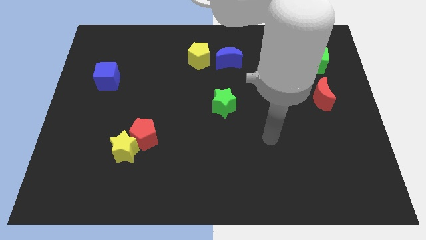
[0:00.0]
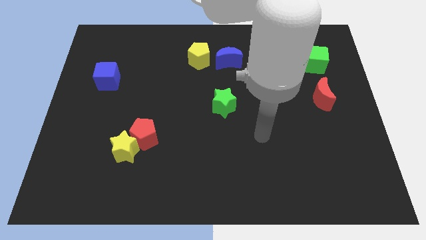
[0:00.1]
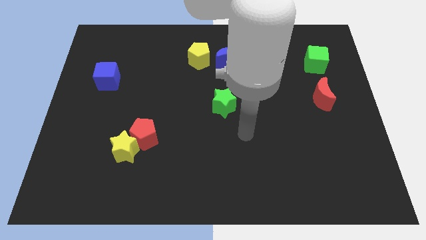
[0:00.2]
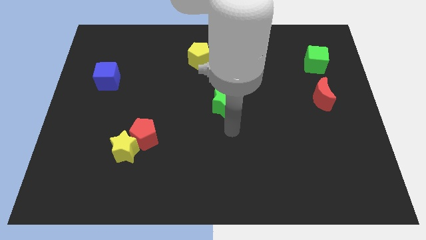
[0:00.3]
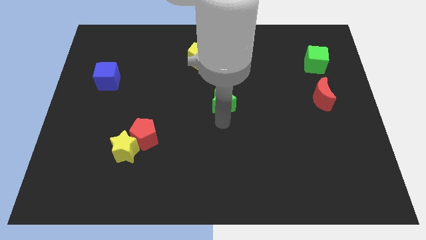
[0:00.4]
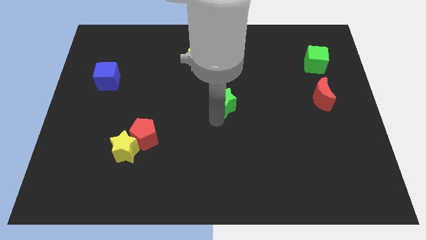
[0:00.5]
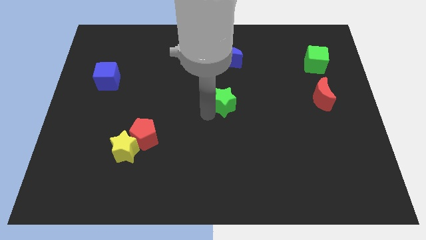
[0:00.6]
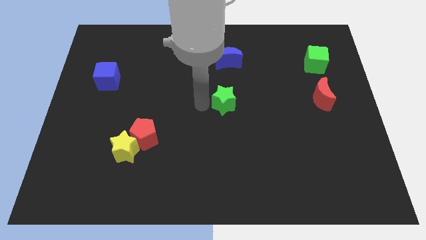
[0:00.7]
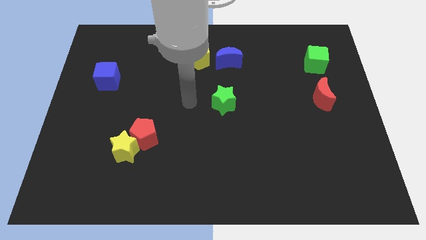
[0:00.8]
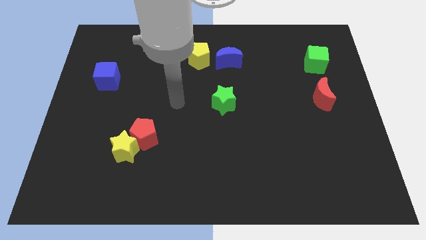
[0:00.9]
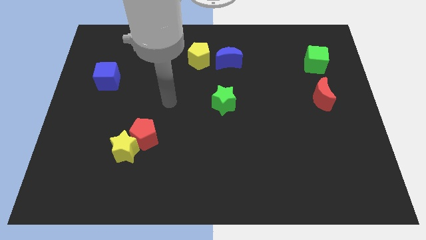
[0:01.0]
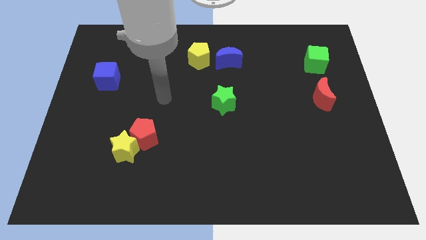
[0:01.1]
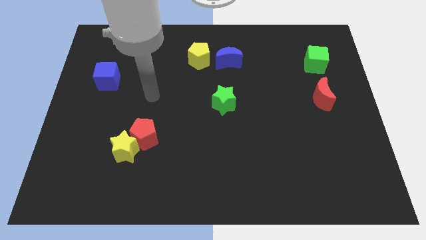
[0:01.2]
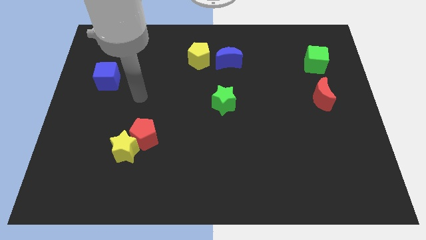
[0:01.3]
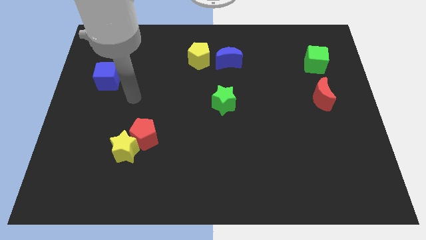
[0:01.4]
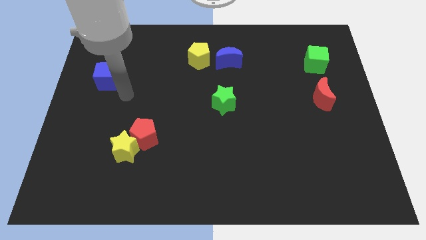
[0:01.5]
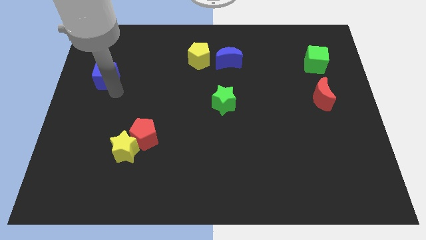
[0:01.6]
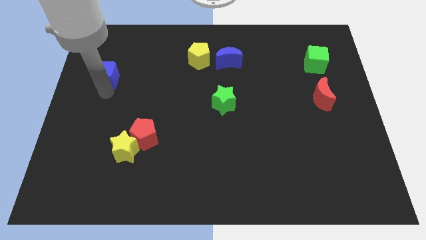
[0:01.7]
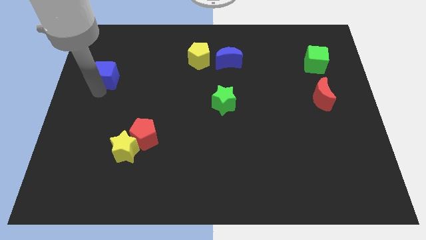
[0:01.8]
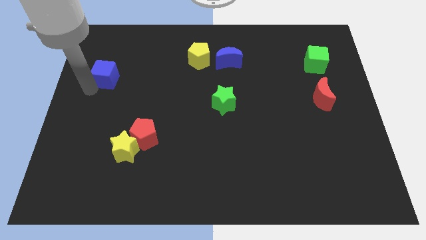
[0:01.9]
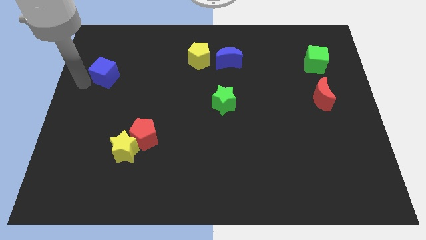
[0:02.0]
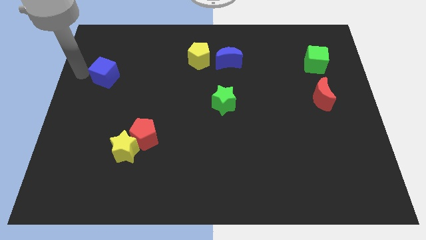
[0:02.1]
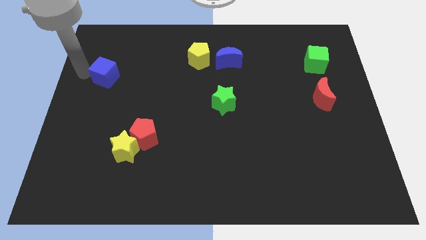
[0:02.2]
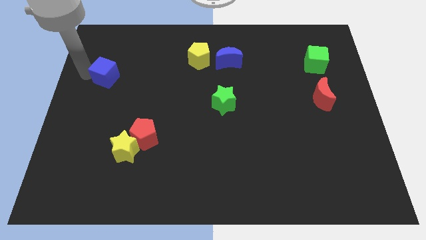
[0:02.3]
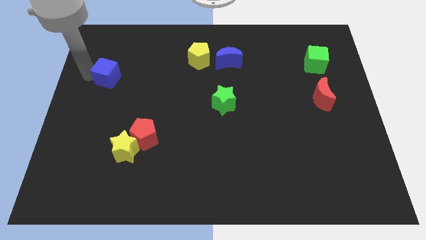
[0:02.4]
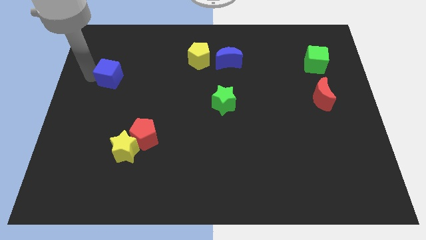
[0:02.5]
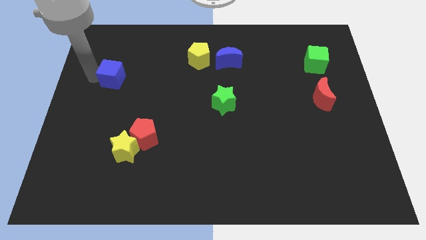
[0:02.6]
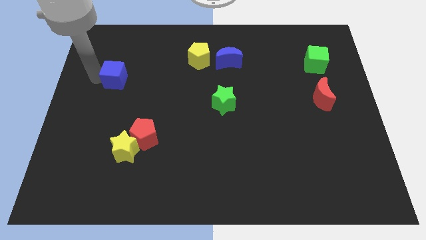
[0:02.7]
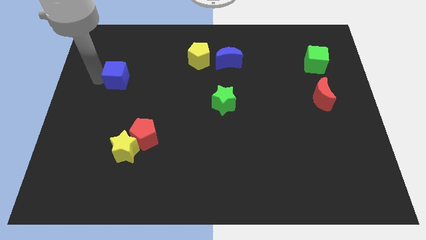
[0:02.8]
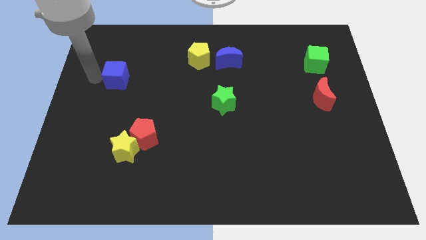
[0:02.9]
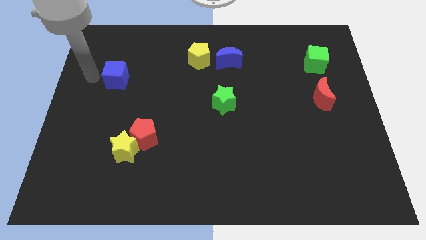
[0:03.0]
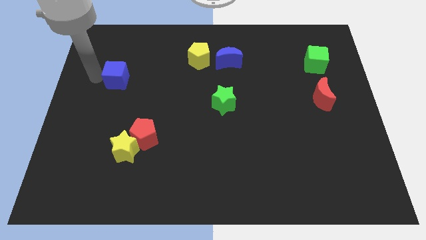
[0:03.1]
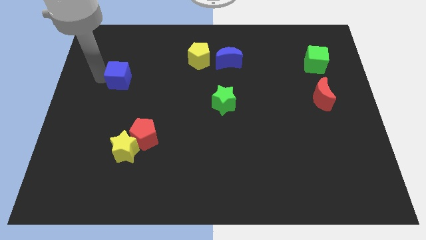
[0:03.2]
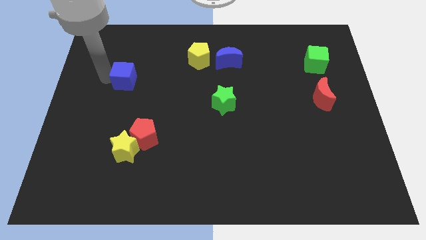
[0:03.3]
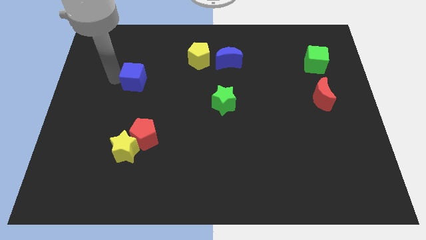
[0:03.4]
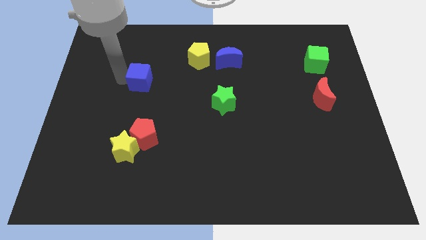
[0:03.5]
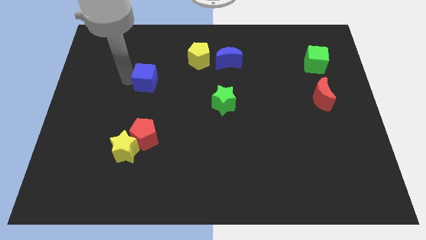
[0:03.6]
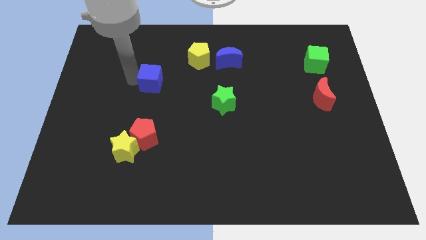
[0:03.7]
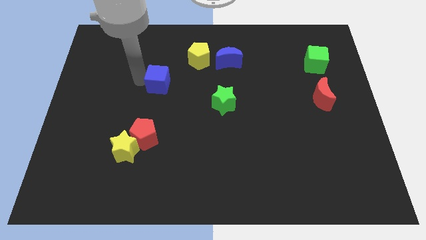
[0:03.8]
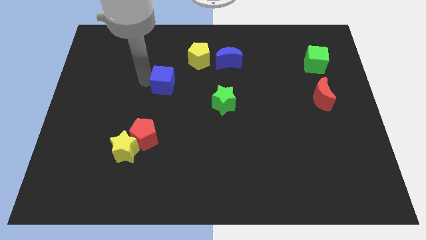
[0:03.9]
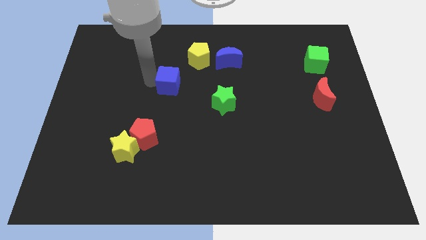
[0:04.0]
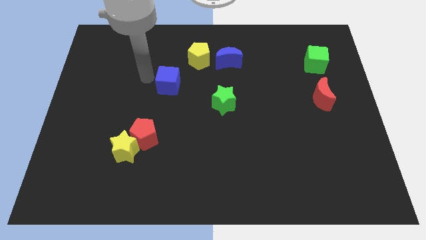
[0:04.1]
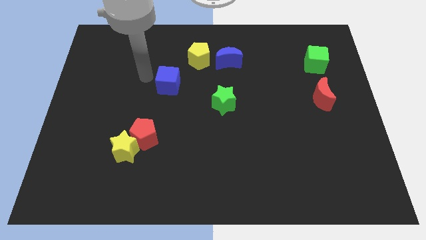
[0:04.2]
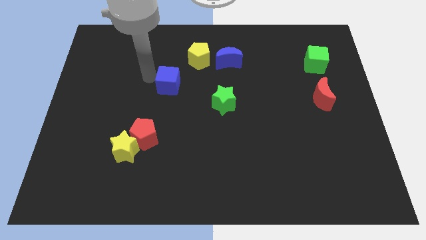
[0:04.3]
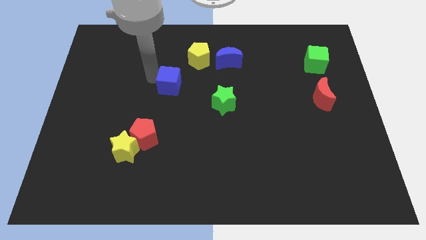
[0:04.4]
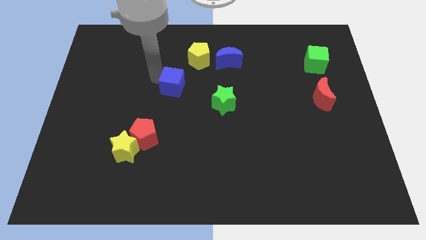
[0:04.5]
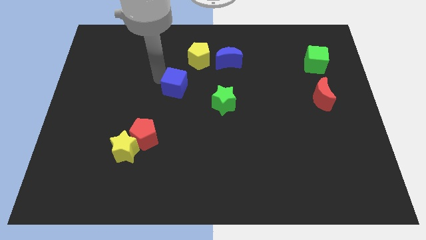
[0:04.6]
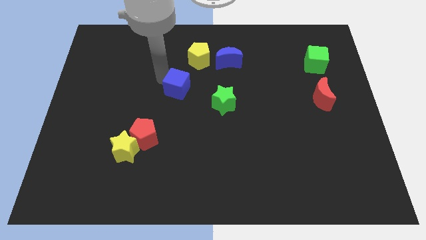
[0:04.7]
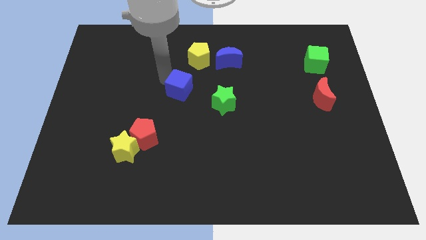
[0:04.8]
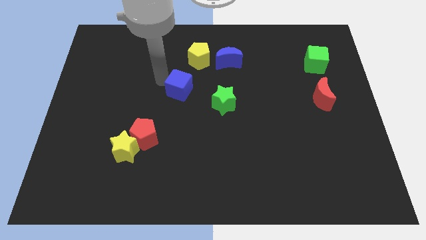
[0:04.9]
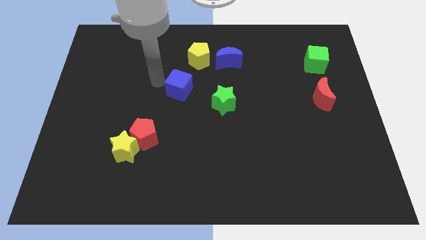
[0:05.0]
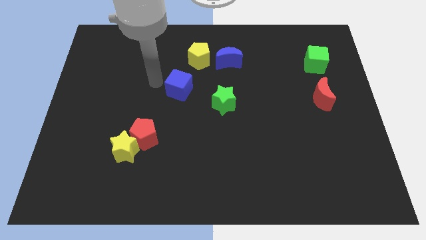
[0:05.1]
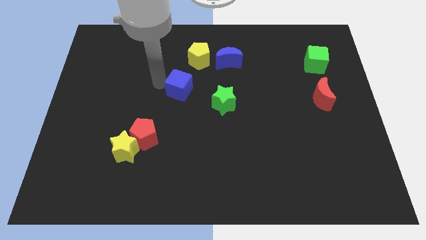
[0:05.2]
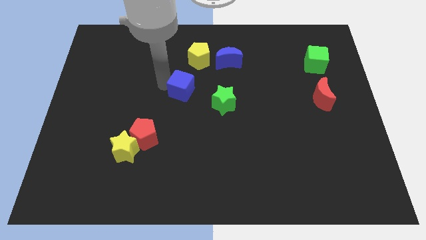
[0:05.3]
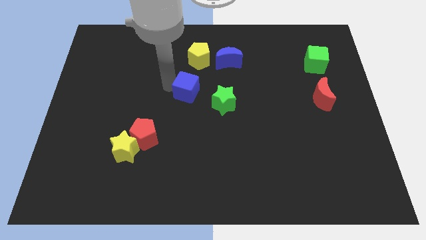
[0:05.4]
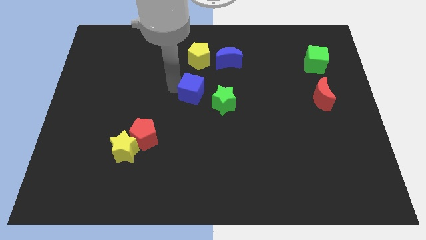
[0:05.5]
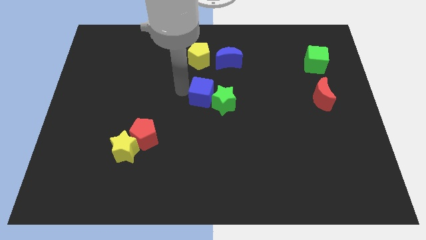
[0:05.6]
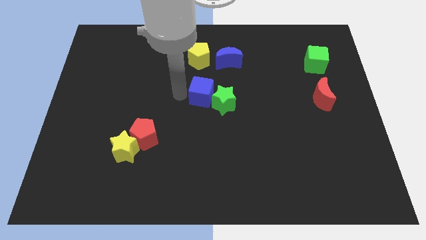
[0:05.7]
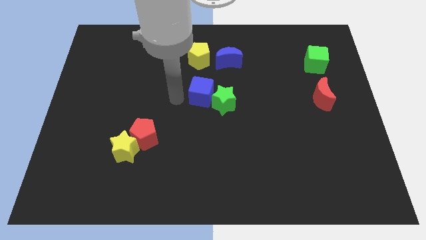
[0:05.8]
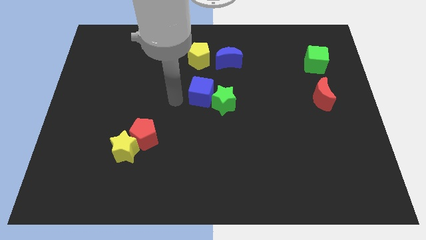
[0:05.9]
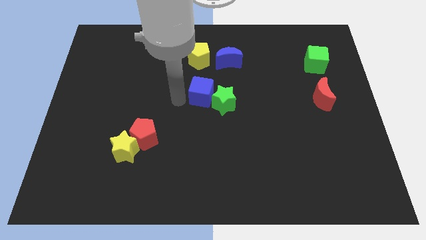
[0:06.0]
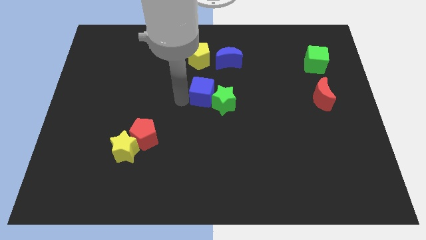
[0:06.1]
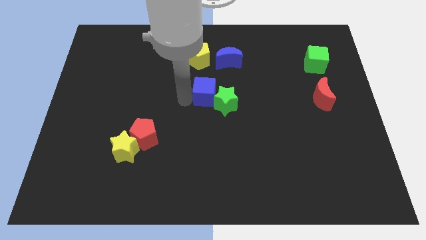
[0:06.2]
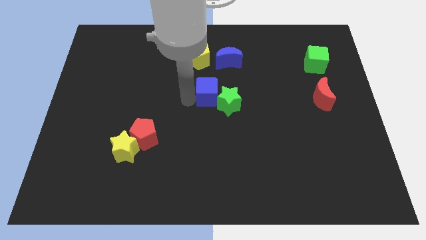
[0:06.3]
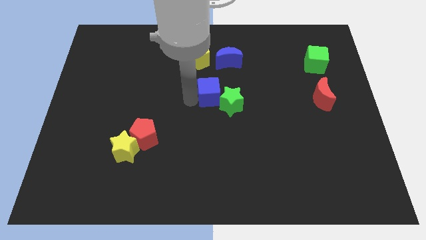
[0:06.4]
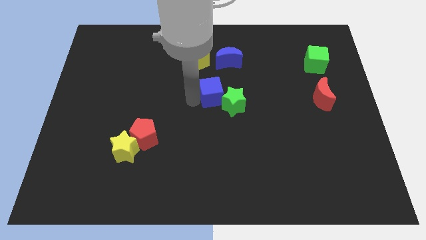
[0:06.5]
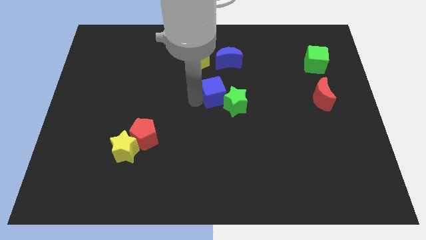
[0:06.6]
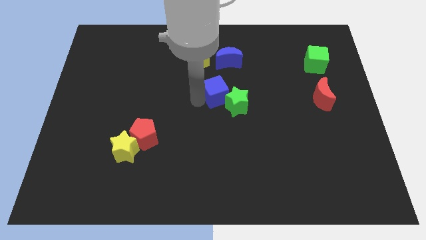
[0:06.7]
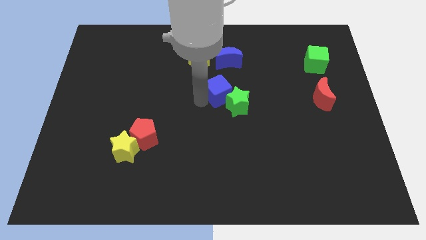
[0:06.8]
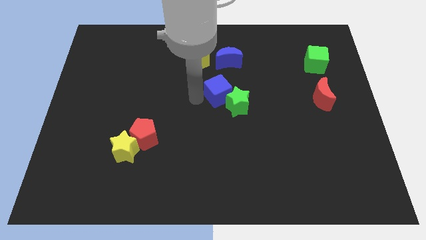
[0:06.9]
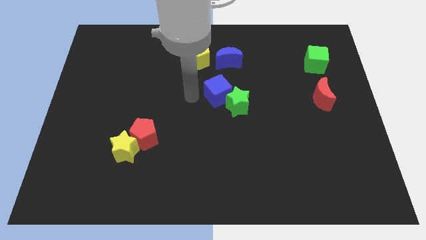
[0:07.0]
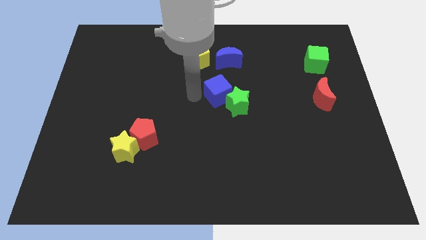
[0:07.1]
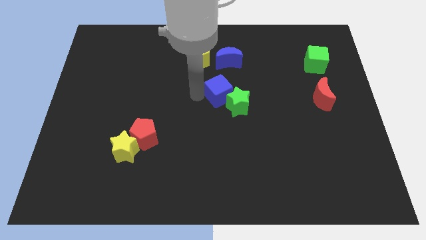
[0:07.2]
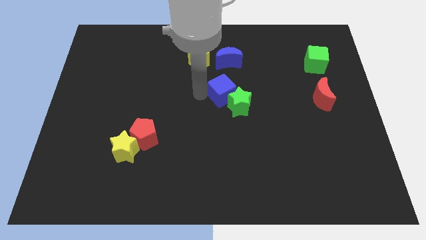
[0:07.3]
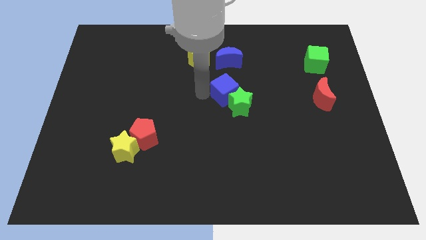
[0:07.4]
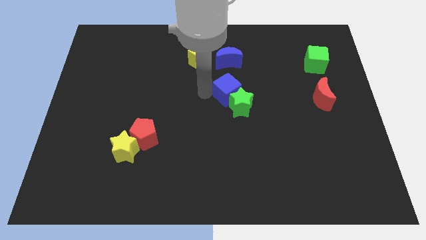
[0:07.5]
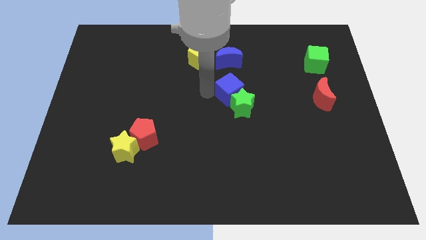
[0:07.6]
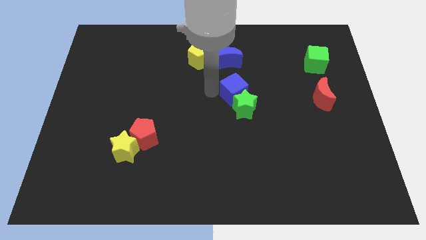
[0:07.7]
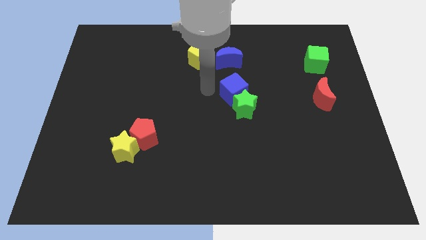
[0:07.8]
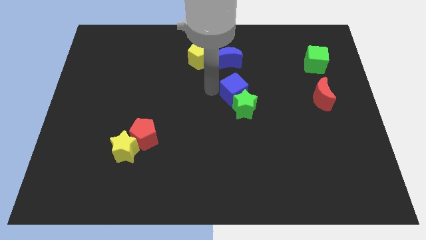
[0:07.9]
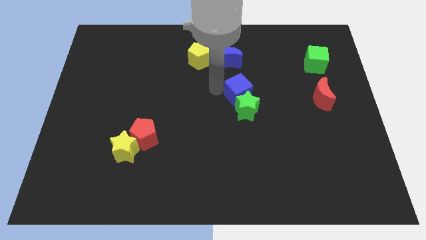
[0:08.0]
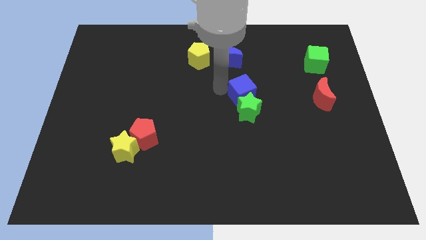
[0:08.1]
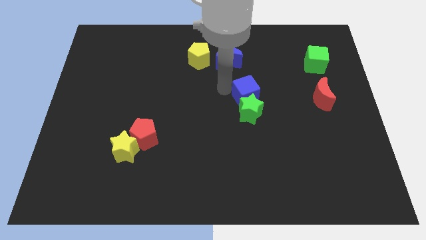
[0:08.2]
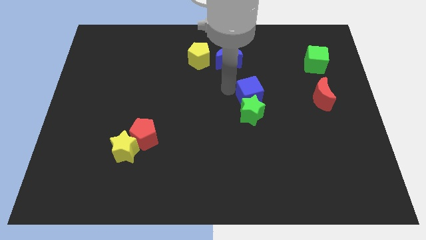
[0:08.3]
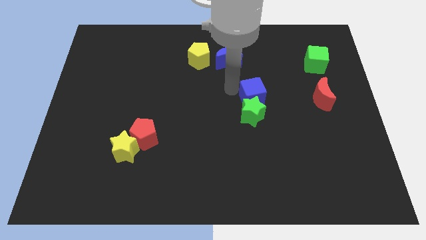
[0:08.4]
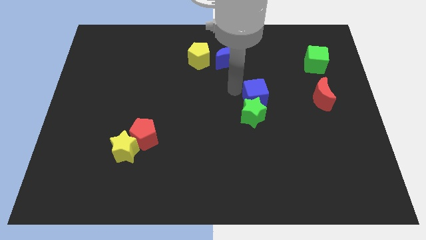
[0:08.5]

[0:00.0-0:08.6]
put the blue cube just left of the red moon
